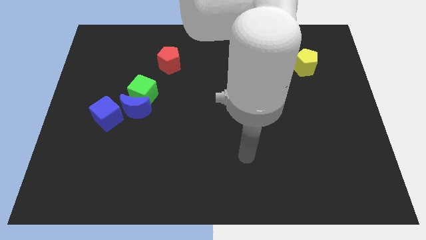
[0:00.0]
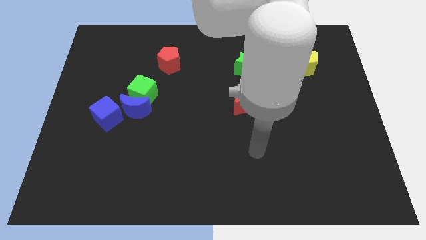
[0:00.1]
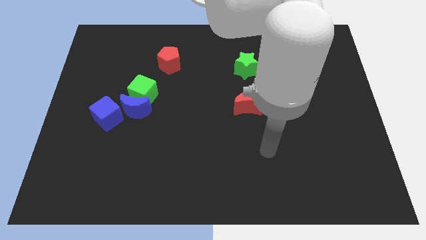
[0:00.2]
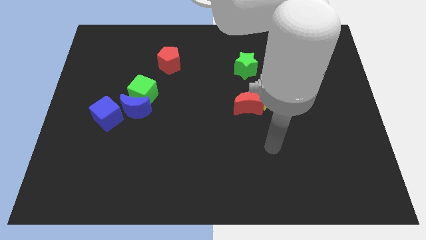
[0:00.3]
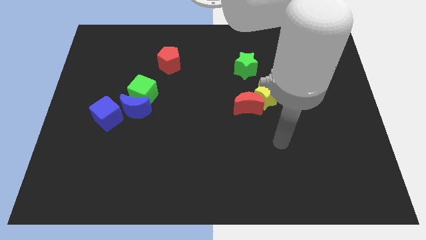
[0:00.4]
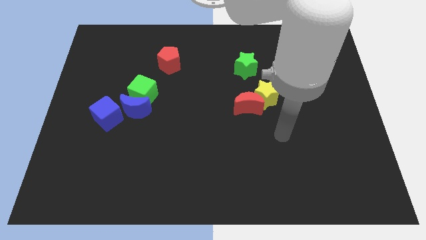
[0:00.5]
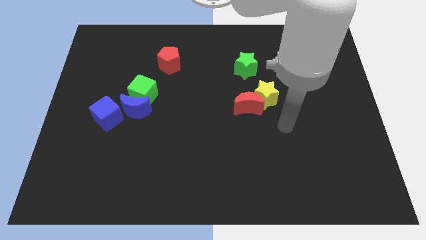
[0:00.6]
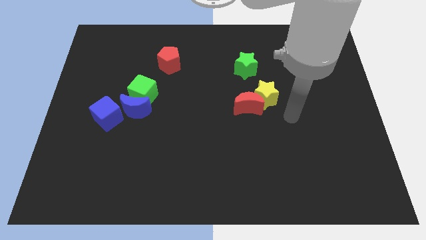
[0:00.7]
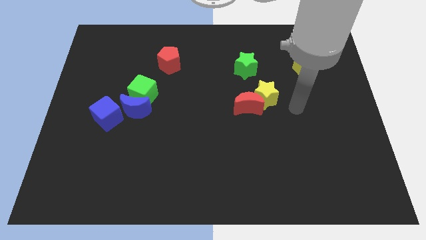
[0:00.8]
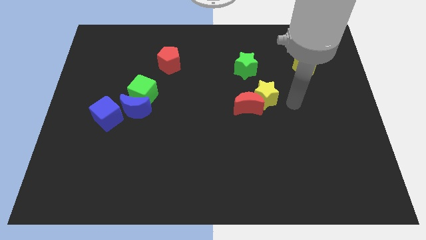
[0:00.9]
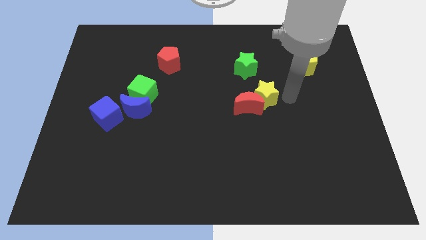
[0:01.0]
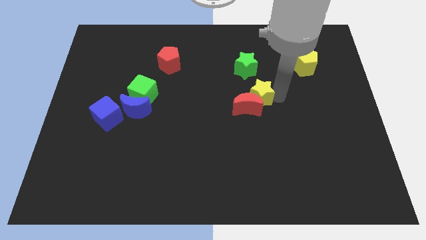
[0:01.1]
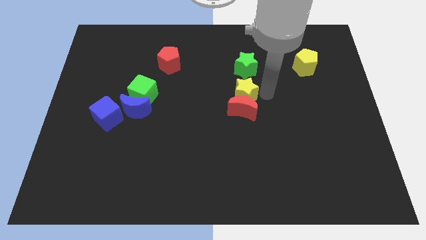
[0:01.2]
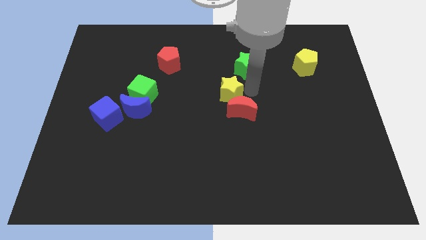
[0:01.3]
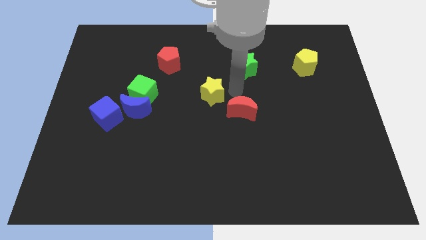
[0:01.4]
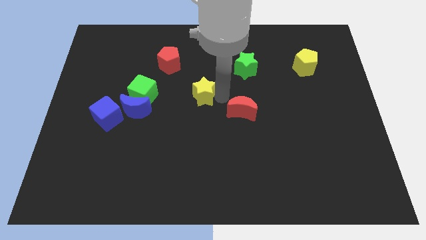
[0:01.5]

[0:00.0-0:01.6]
pull the red moon apart from the yellow star

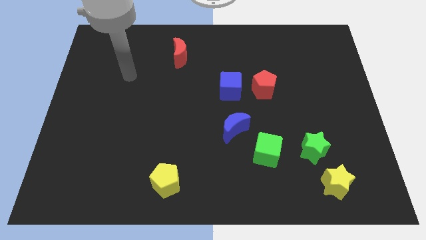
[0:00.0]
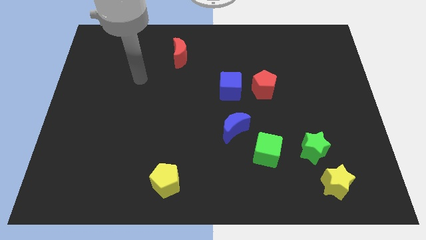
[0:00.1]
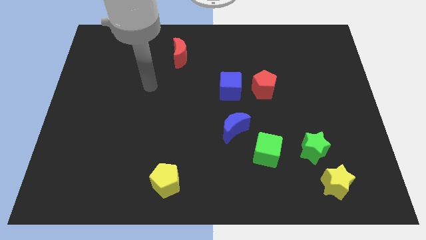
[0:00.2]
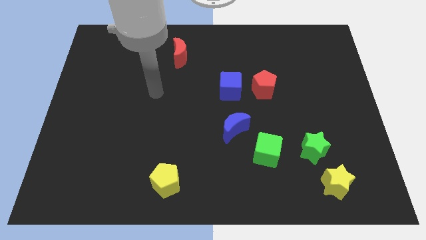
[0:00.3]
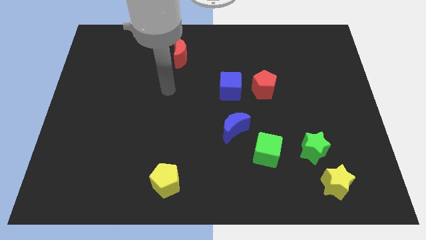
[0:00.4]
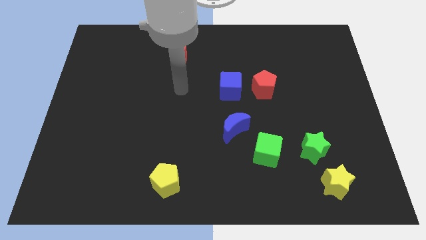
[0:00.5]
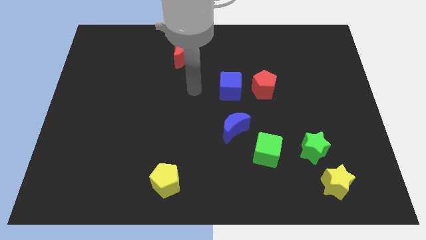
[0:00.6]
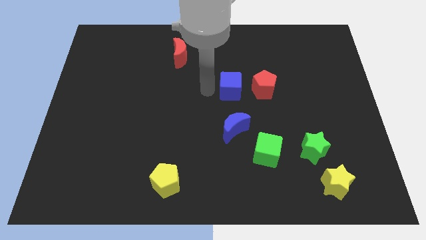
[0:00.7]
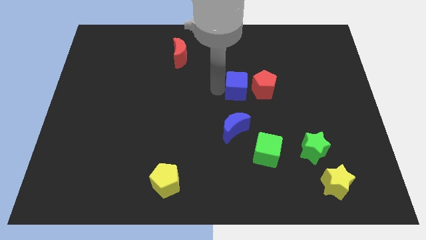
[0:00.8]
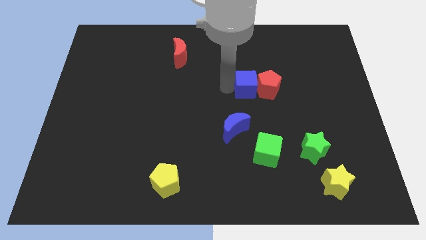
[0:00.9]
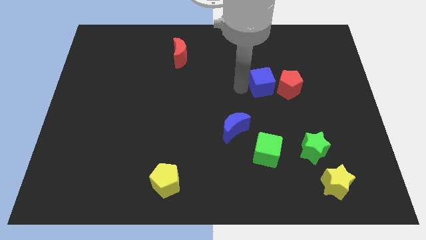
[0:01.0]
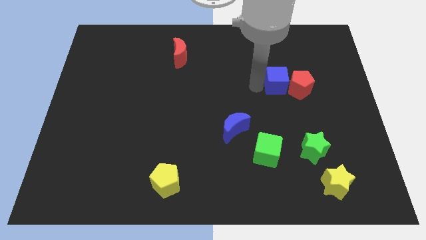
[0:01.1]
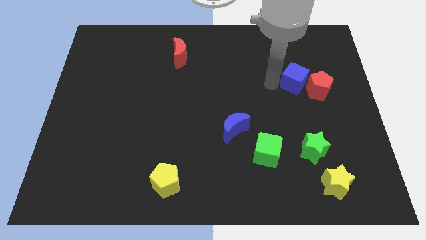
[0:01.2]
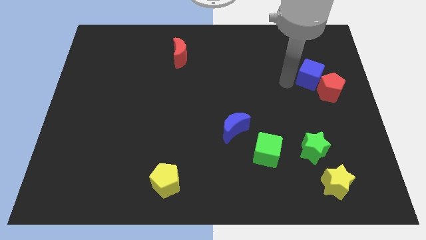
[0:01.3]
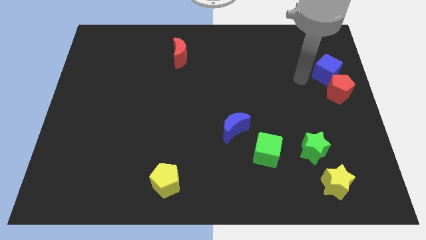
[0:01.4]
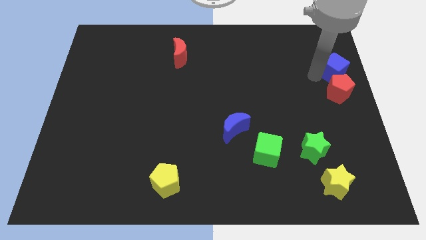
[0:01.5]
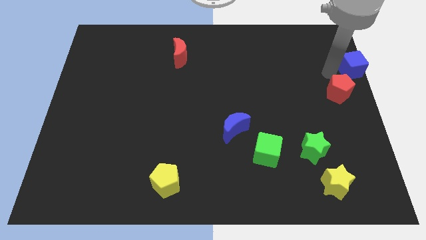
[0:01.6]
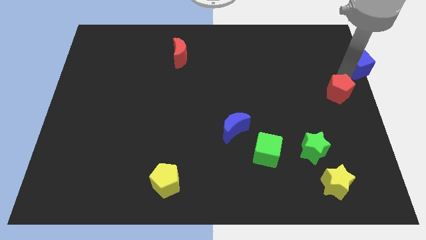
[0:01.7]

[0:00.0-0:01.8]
move the red pentagon away from the blue cube

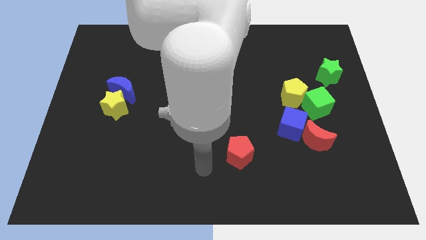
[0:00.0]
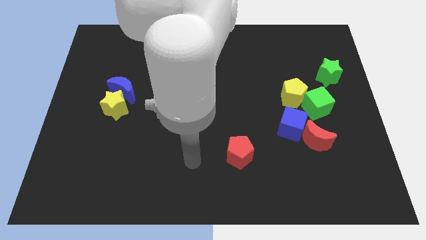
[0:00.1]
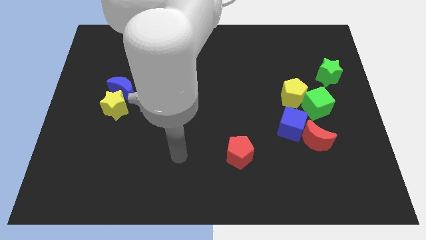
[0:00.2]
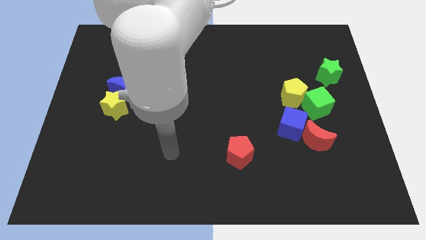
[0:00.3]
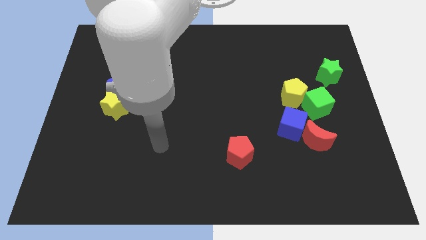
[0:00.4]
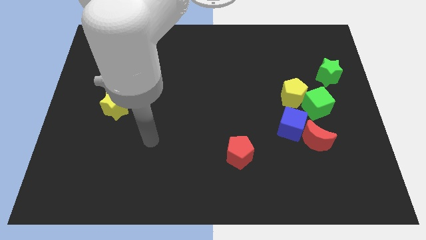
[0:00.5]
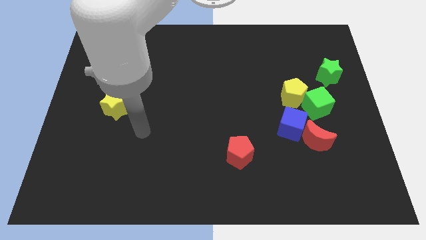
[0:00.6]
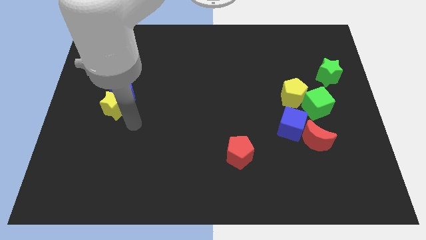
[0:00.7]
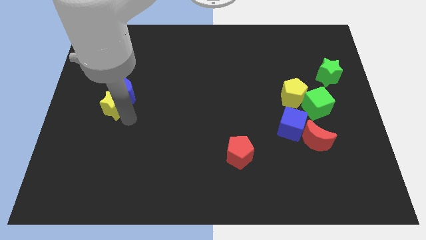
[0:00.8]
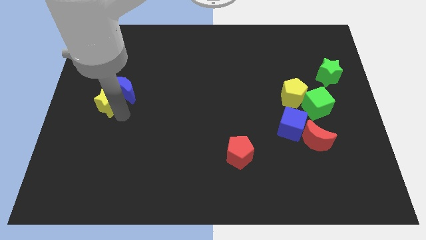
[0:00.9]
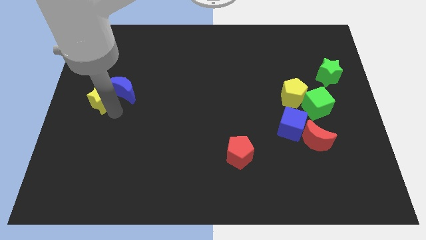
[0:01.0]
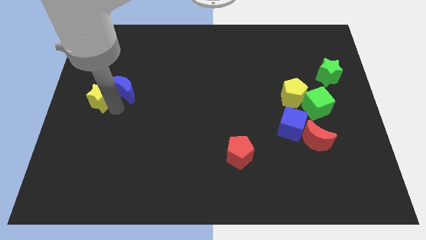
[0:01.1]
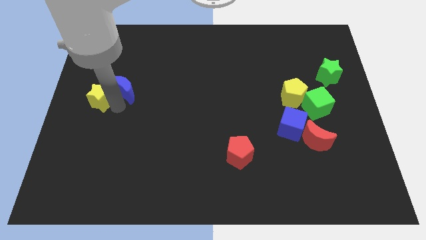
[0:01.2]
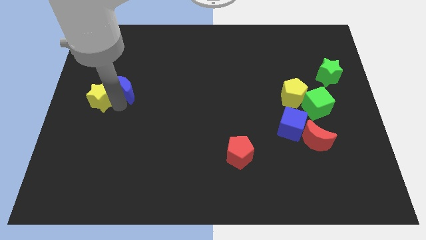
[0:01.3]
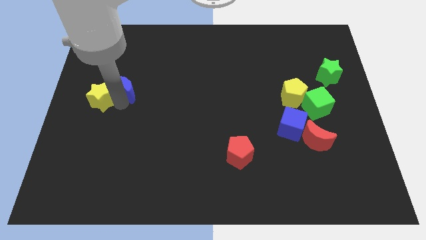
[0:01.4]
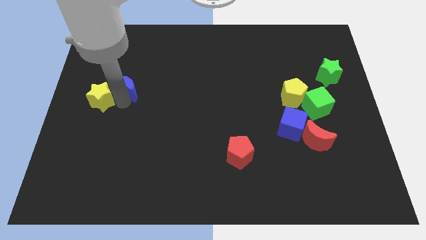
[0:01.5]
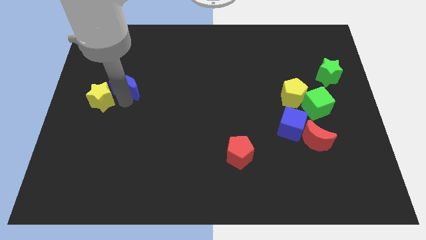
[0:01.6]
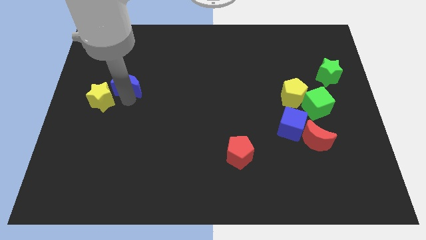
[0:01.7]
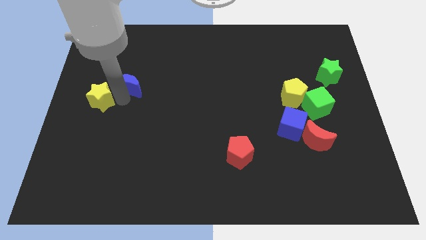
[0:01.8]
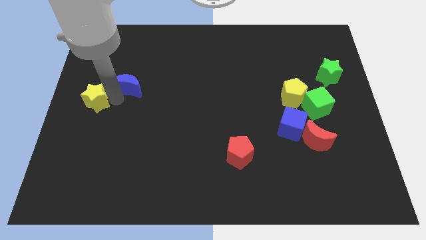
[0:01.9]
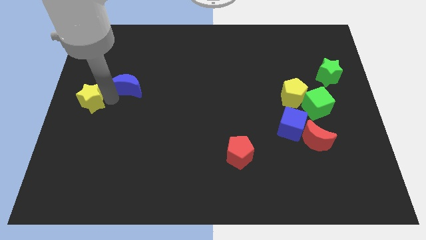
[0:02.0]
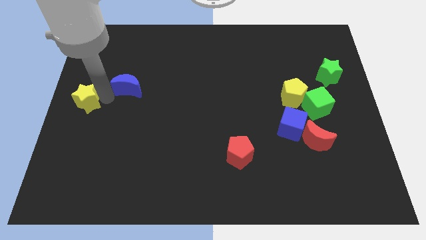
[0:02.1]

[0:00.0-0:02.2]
pull the blue moon apart from the yellow star

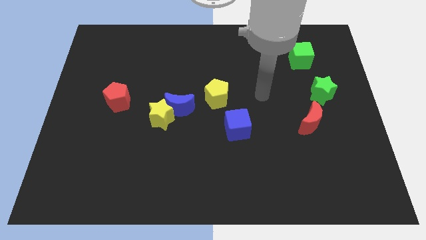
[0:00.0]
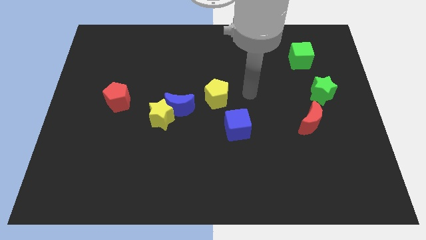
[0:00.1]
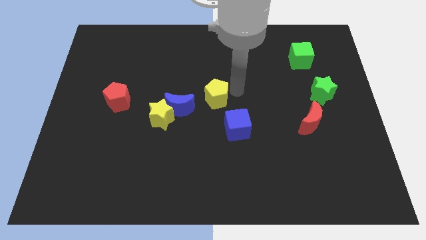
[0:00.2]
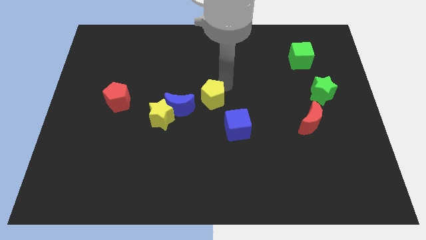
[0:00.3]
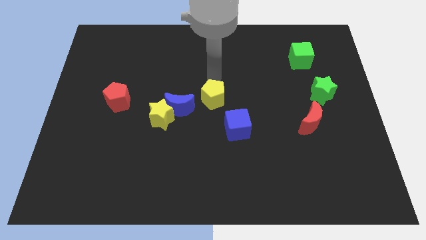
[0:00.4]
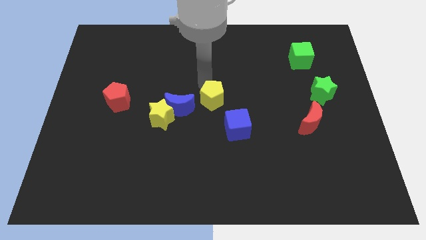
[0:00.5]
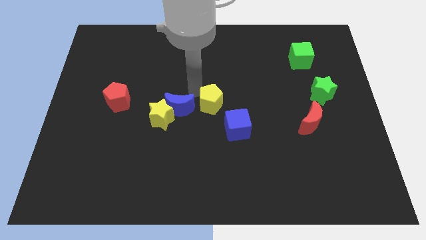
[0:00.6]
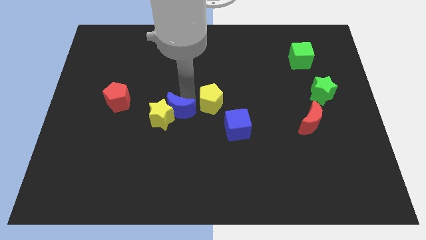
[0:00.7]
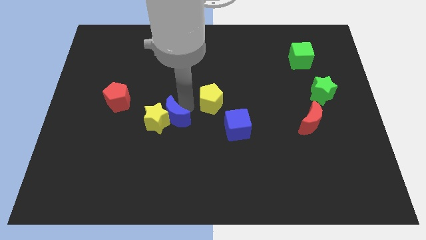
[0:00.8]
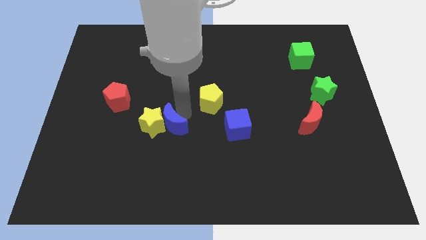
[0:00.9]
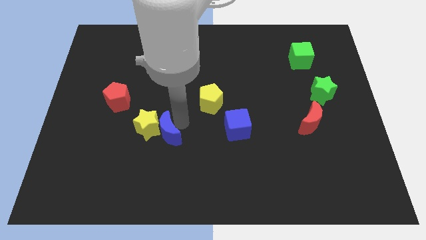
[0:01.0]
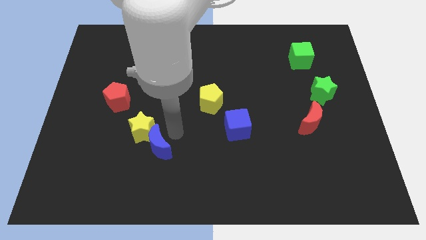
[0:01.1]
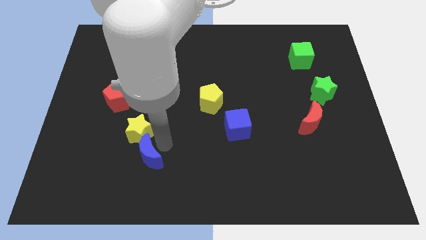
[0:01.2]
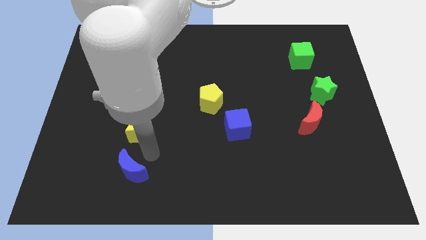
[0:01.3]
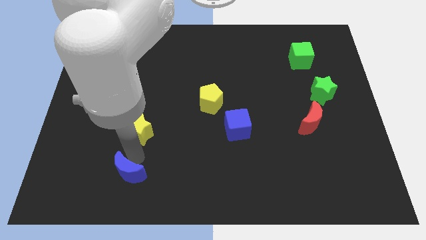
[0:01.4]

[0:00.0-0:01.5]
pull the yellow star apart from the blue moon

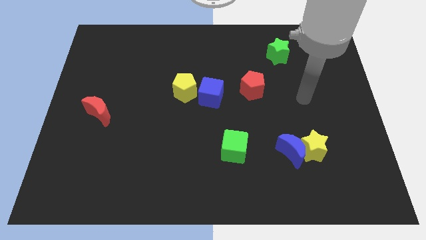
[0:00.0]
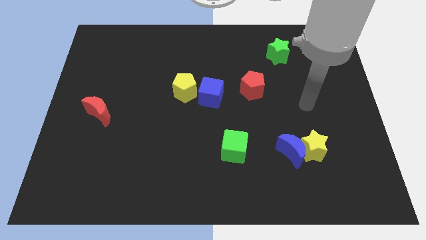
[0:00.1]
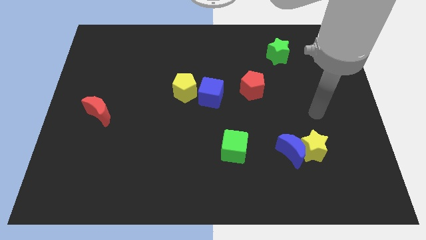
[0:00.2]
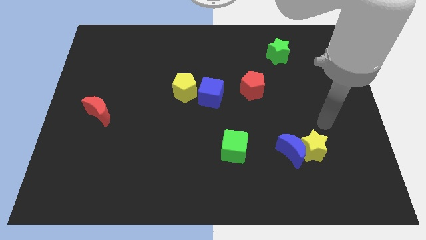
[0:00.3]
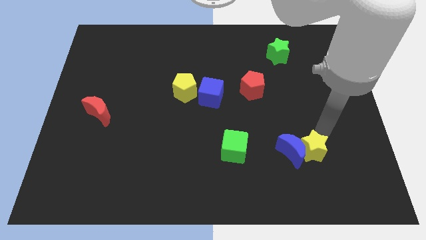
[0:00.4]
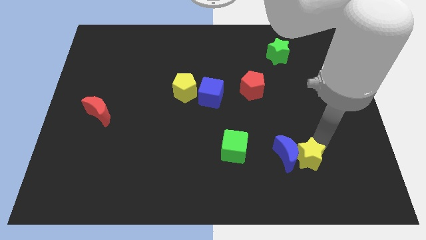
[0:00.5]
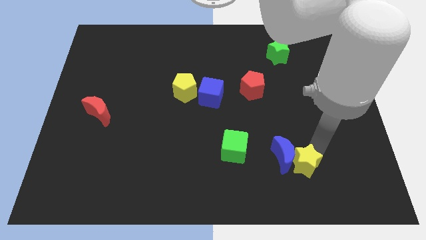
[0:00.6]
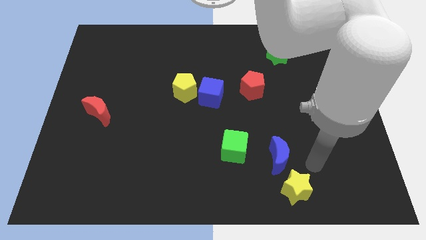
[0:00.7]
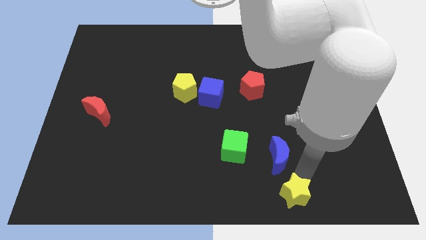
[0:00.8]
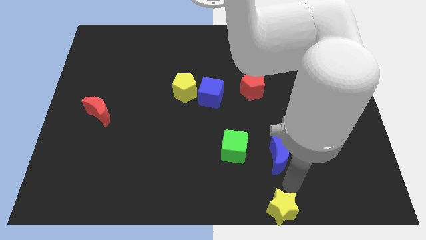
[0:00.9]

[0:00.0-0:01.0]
move the blue moon away from the yellow star

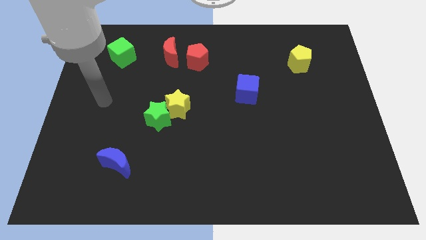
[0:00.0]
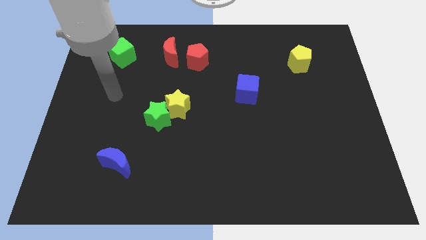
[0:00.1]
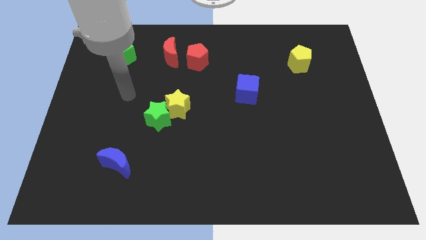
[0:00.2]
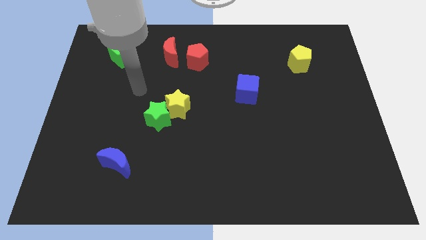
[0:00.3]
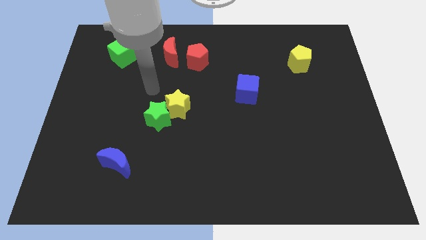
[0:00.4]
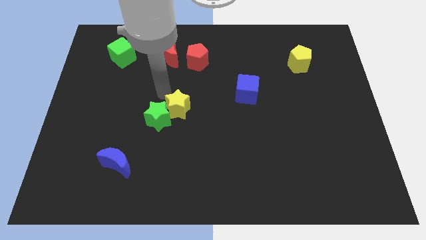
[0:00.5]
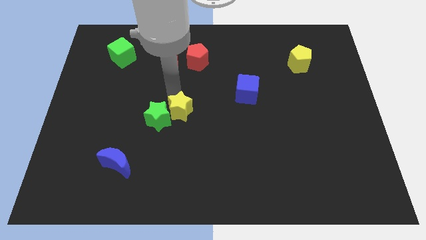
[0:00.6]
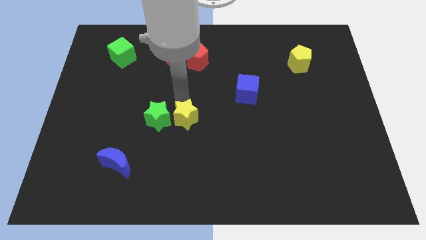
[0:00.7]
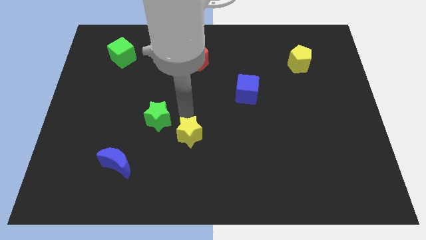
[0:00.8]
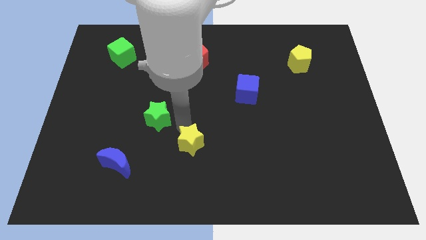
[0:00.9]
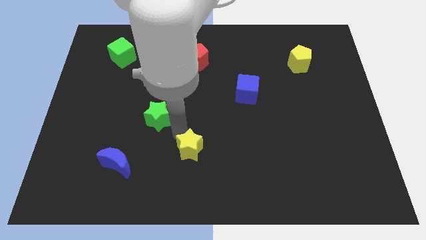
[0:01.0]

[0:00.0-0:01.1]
move the green star away from the yellow star
